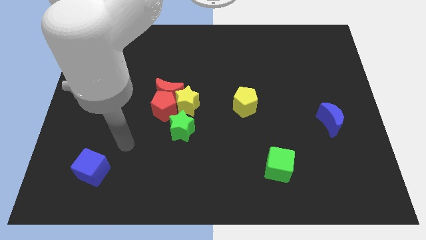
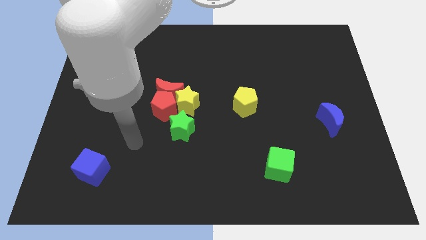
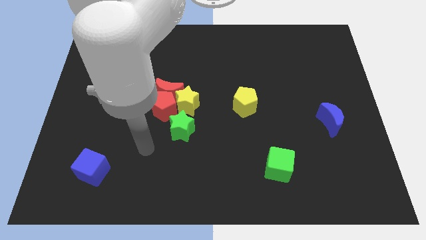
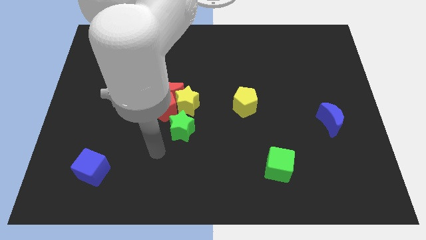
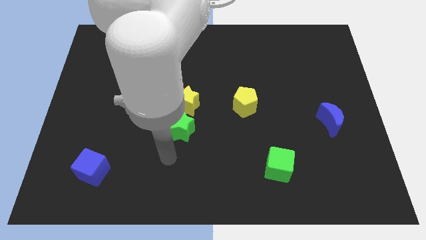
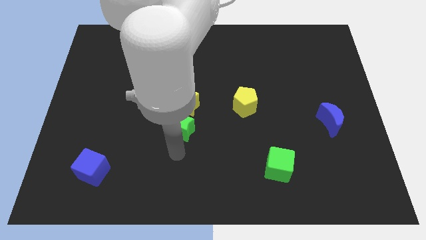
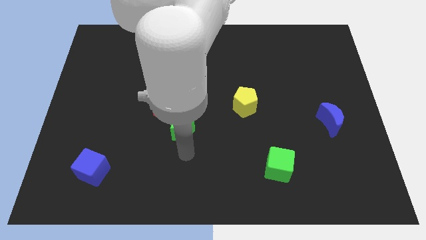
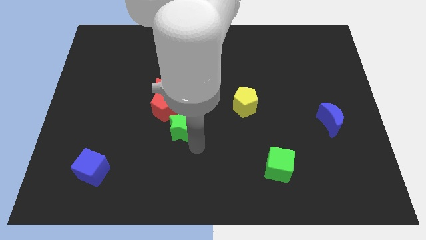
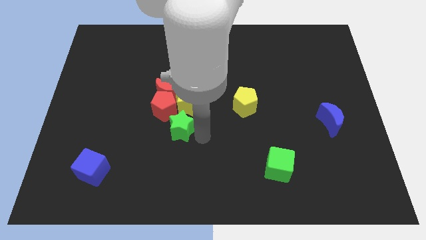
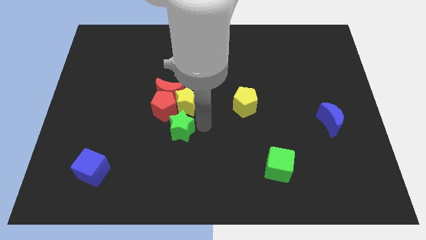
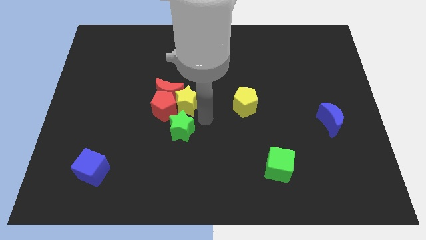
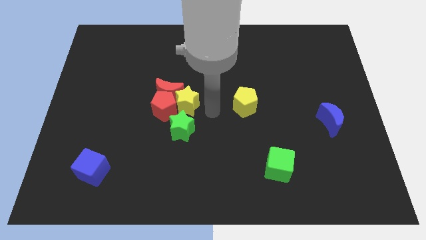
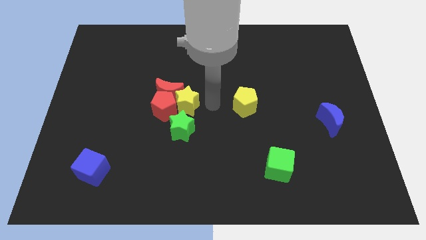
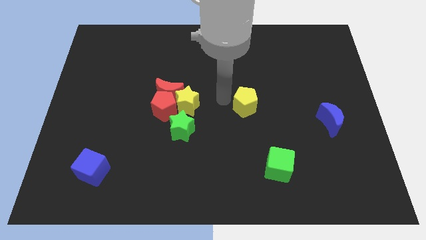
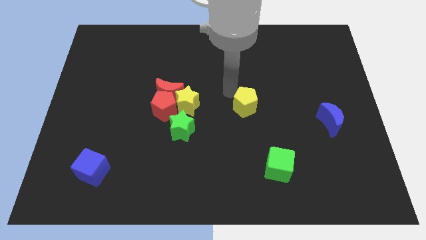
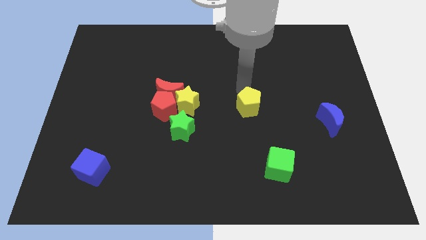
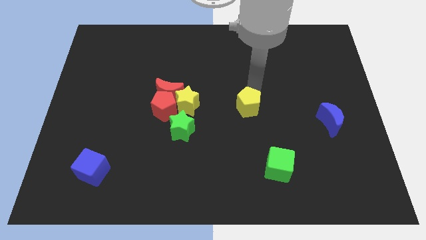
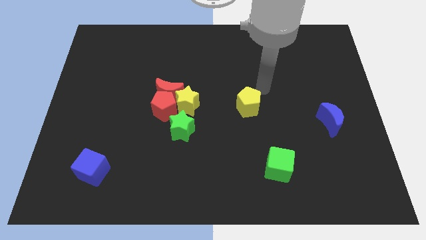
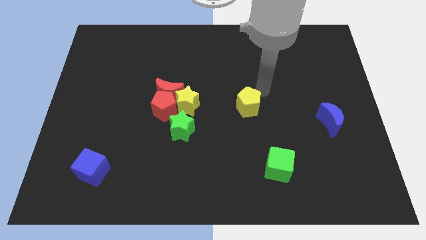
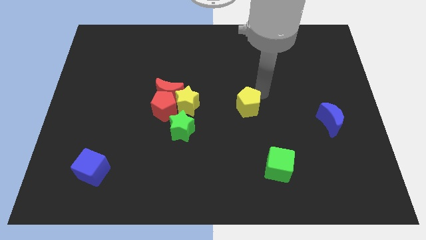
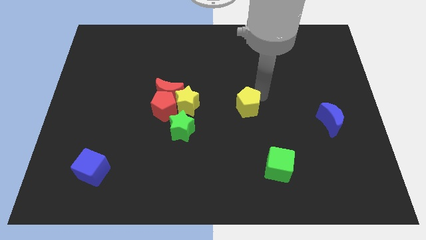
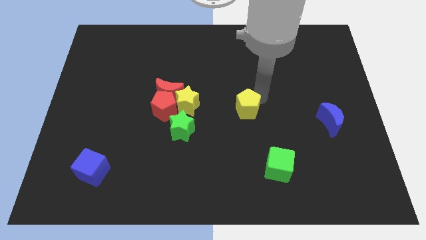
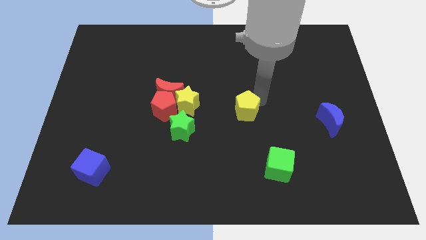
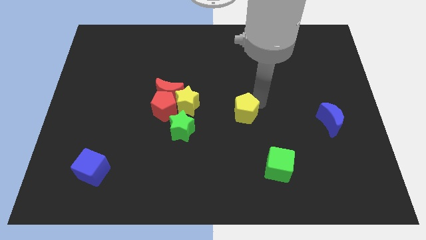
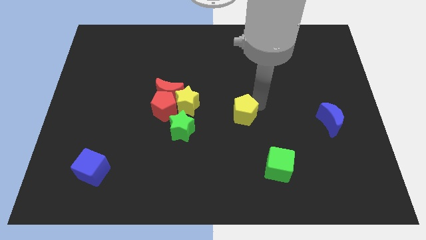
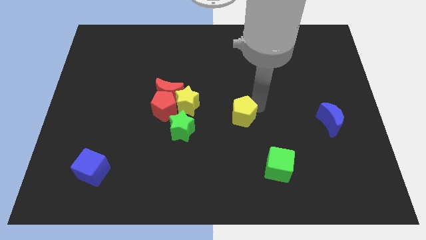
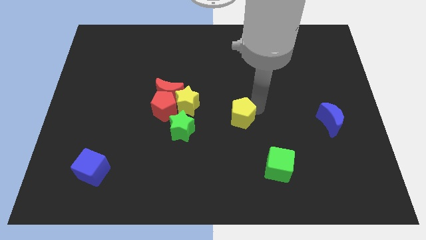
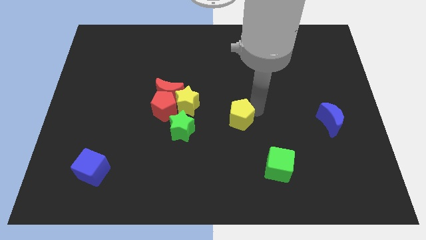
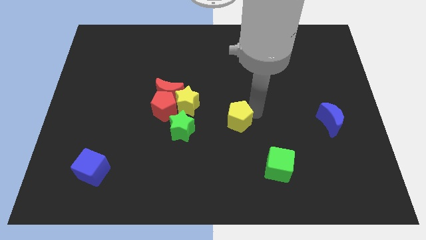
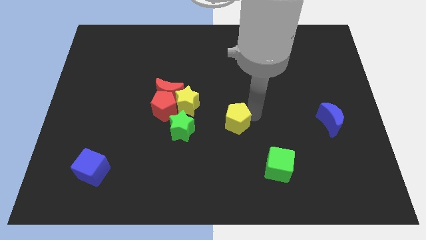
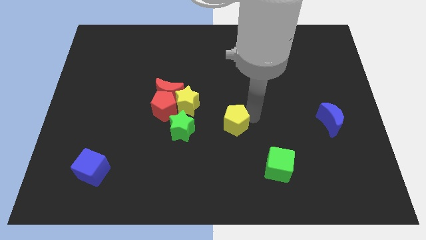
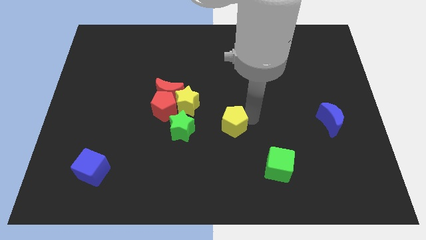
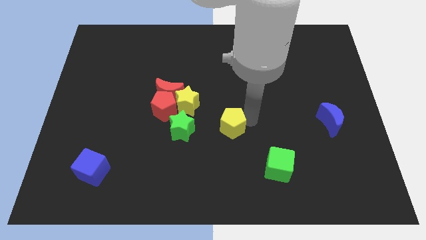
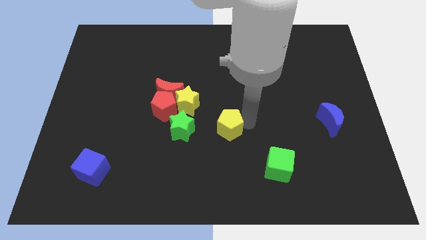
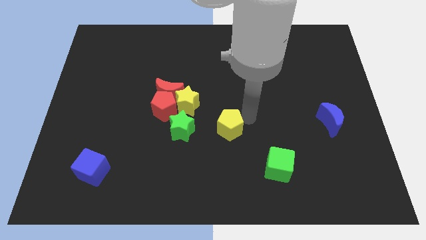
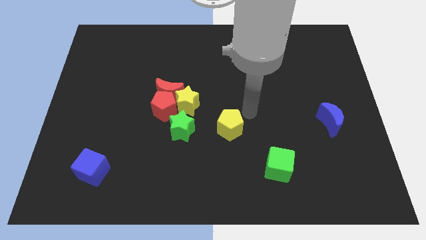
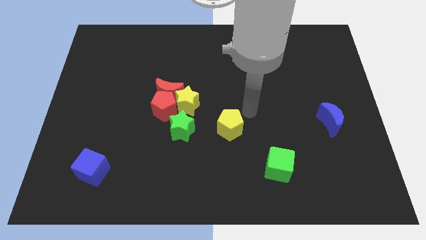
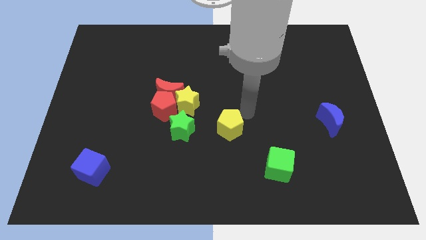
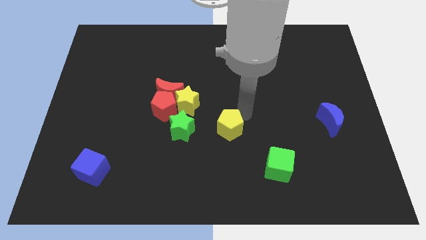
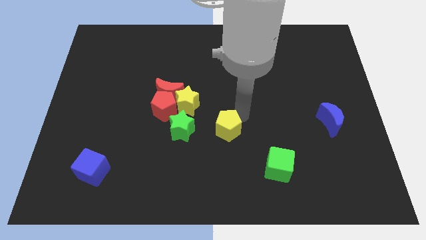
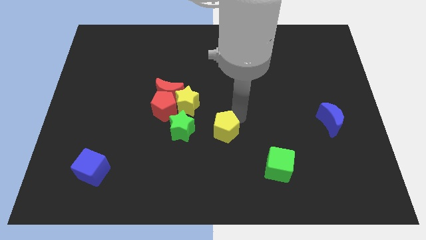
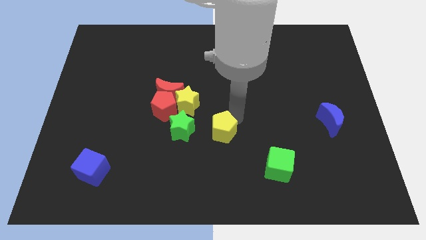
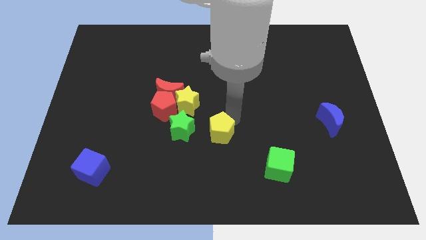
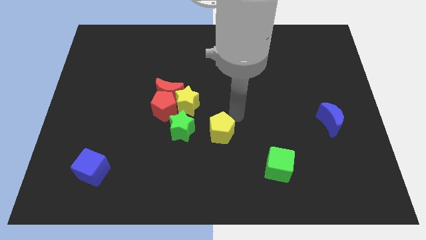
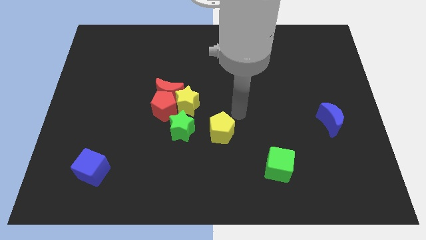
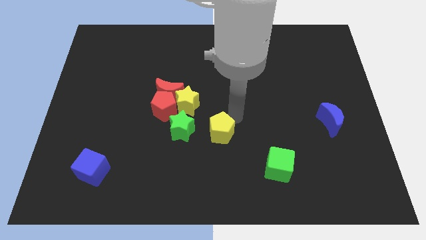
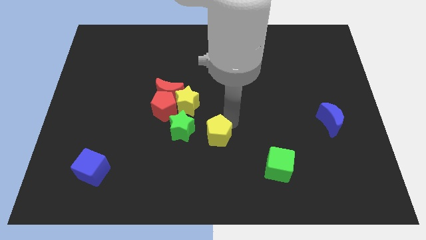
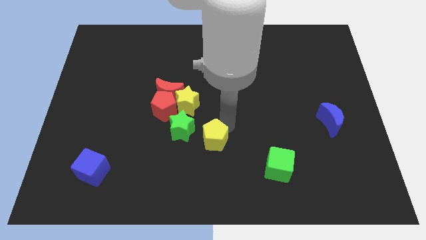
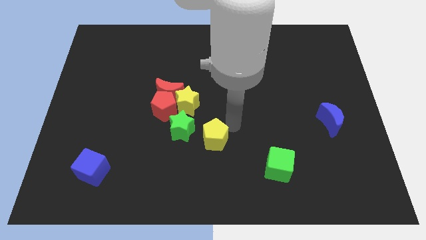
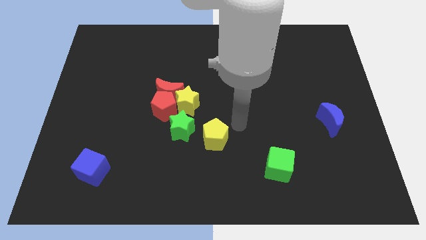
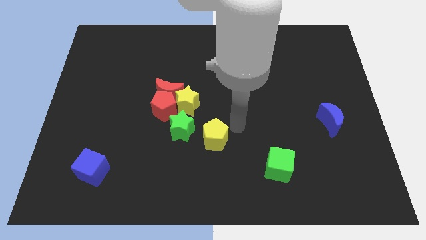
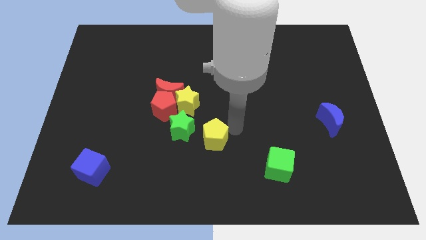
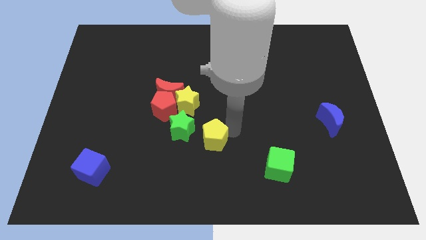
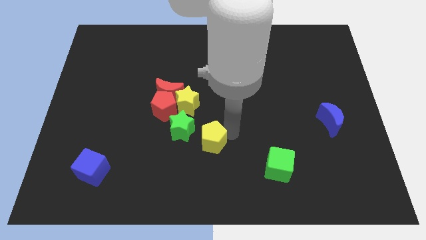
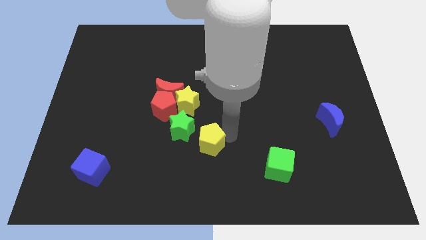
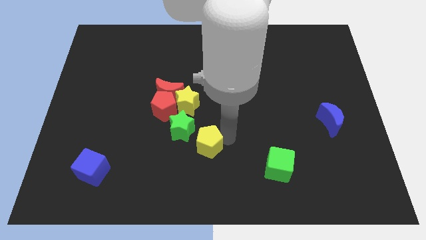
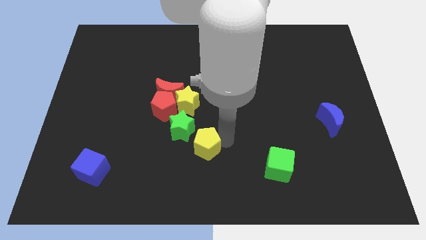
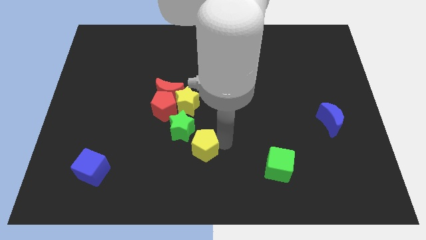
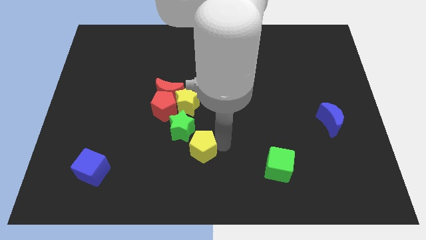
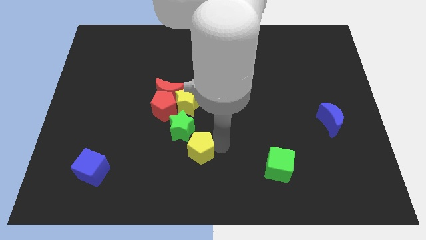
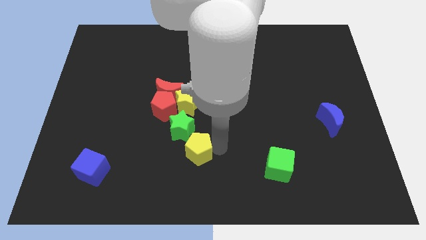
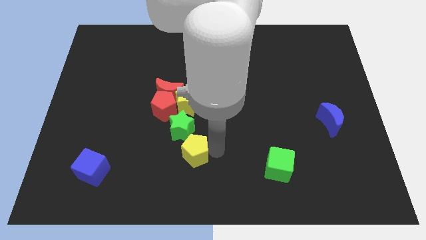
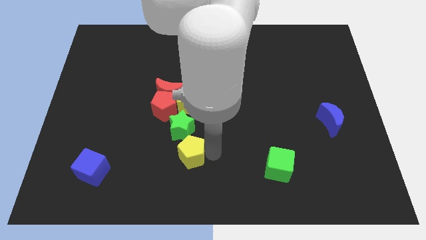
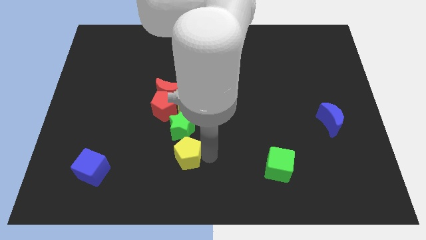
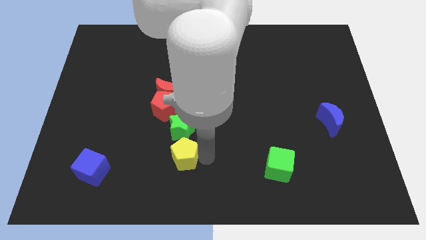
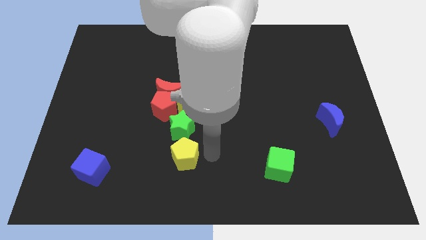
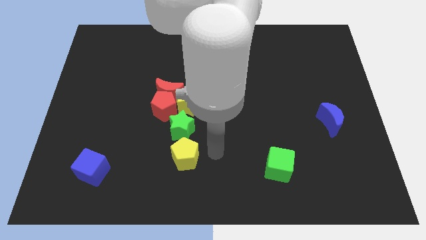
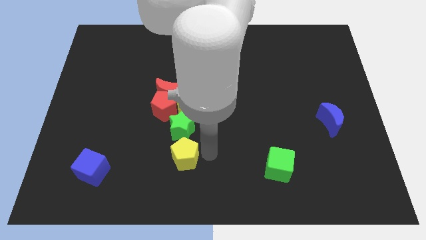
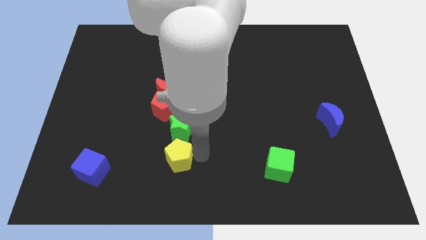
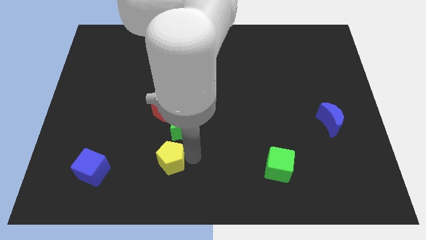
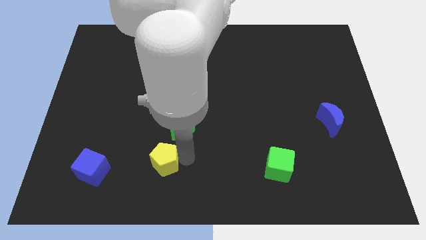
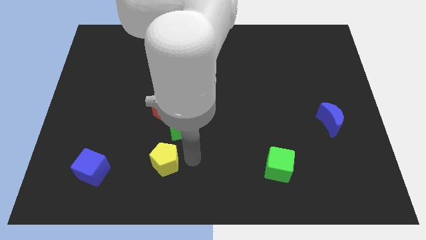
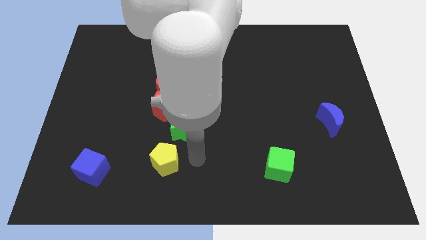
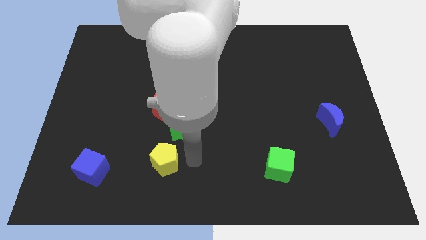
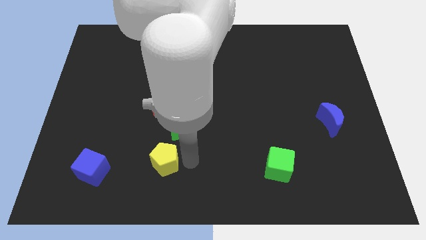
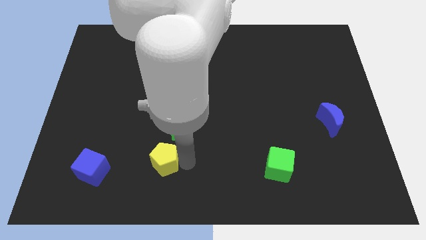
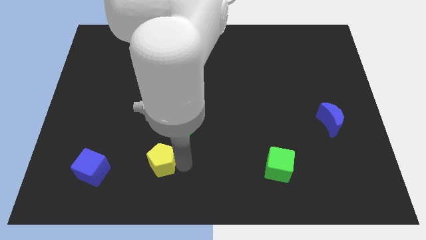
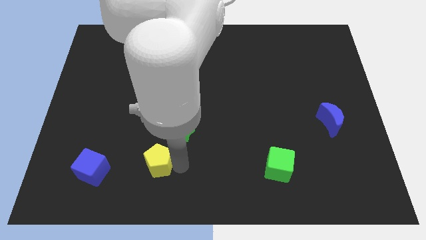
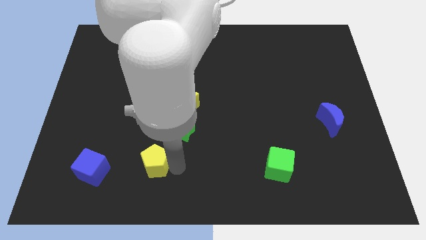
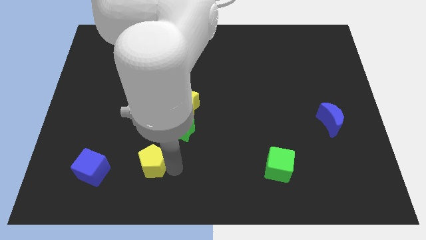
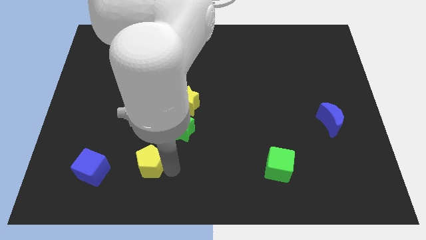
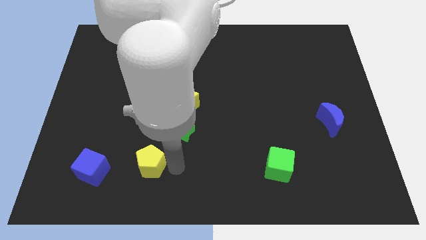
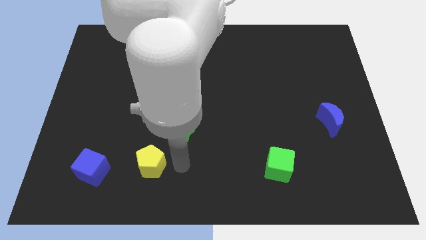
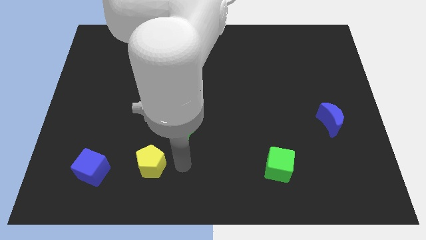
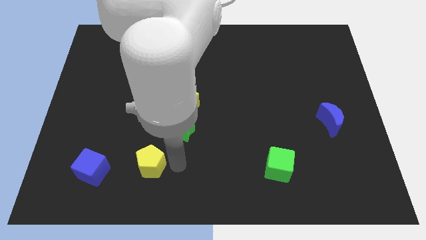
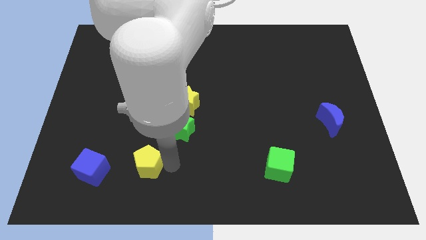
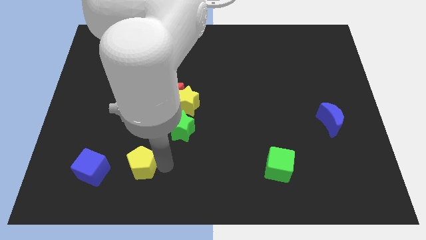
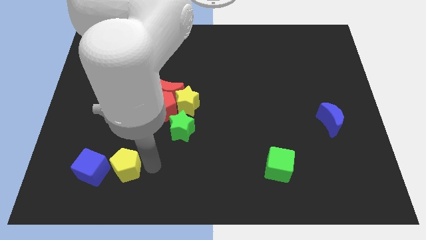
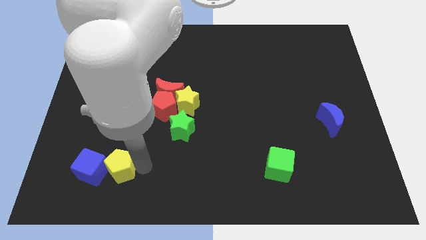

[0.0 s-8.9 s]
put the yellow pentagon next to the blue cube
